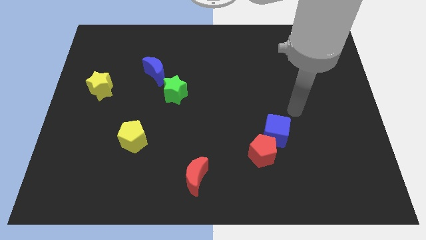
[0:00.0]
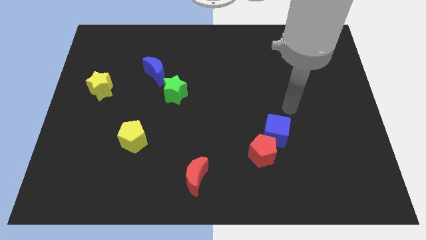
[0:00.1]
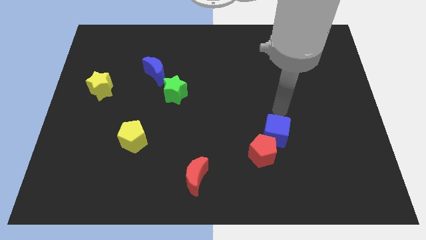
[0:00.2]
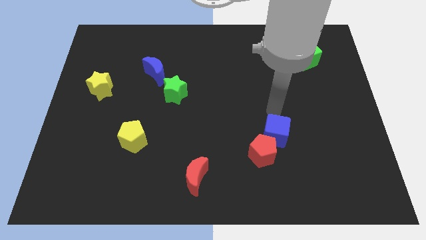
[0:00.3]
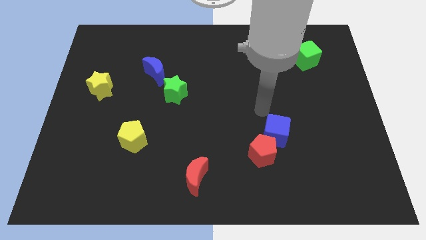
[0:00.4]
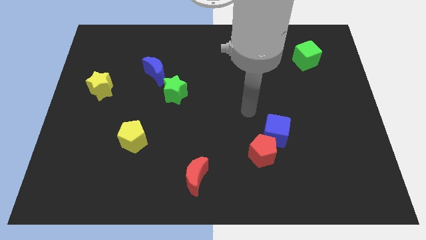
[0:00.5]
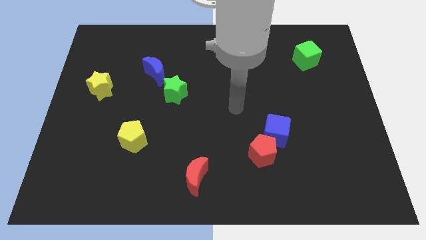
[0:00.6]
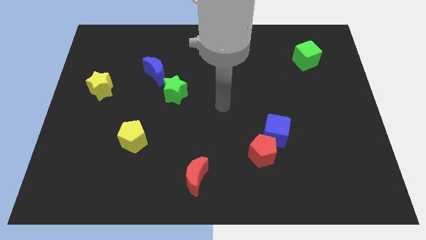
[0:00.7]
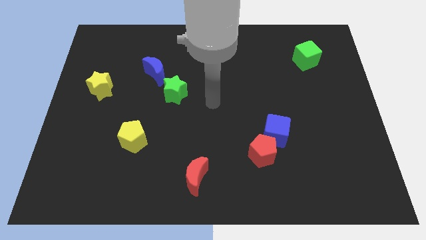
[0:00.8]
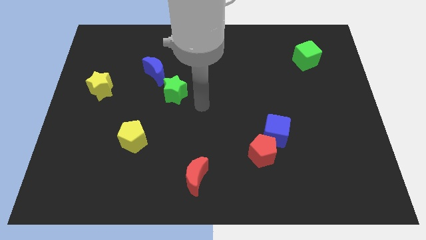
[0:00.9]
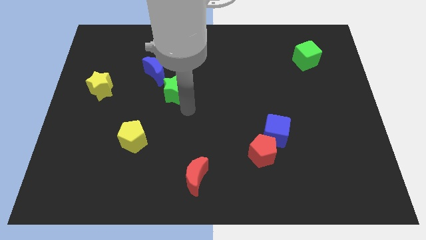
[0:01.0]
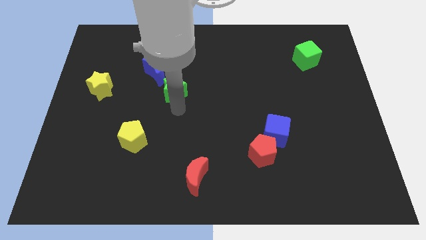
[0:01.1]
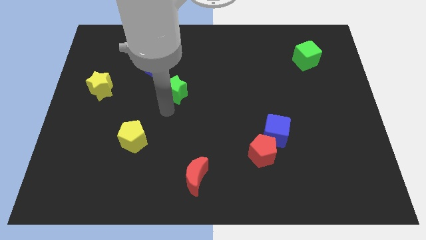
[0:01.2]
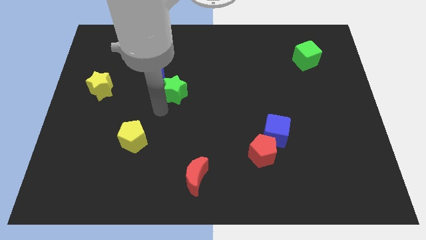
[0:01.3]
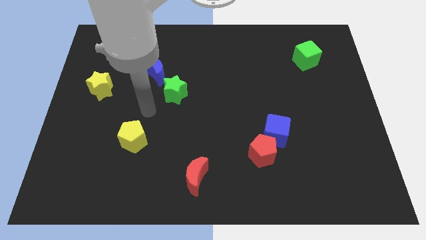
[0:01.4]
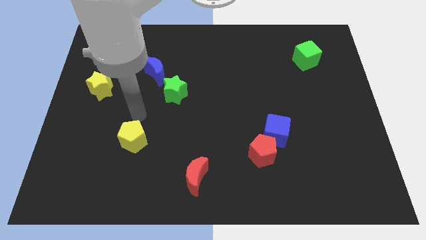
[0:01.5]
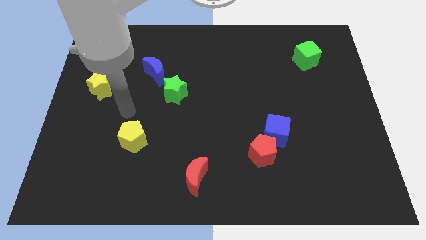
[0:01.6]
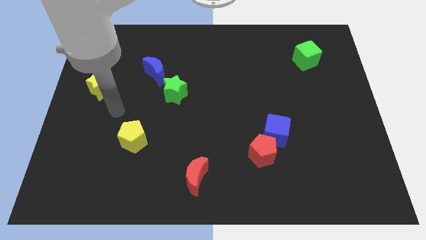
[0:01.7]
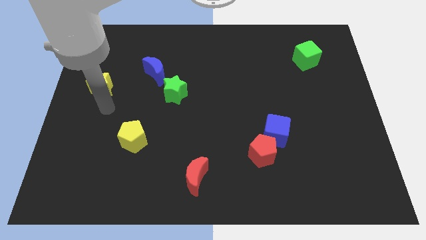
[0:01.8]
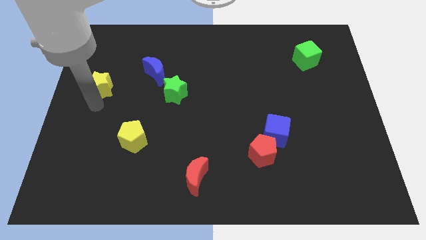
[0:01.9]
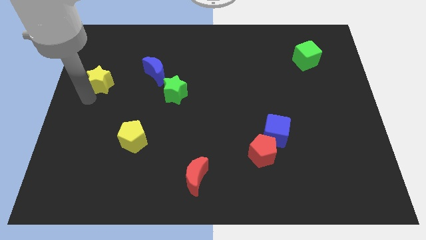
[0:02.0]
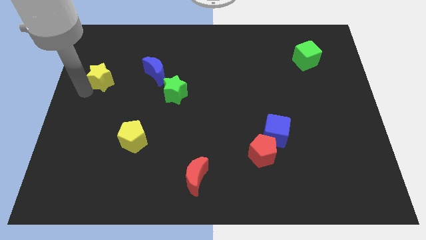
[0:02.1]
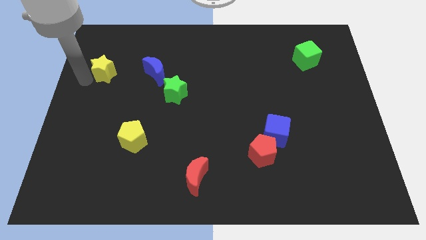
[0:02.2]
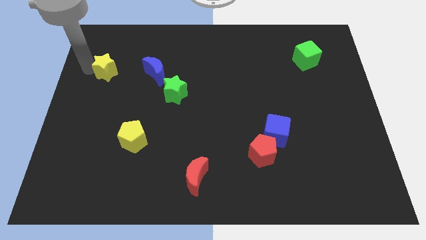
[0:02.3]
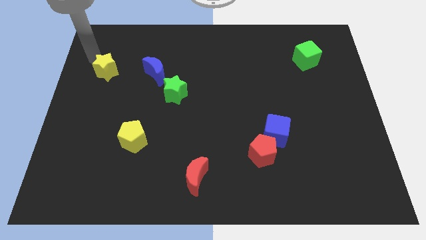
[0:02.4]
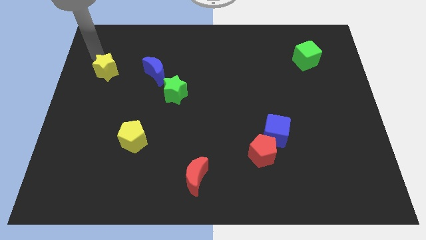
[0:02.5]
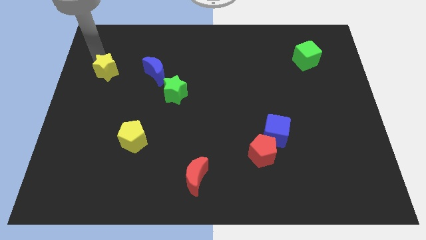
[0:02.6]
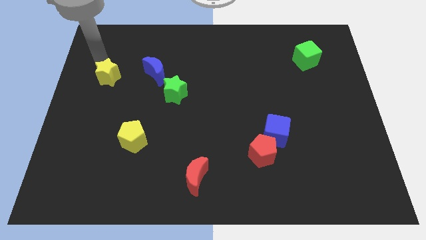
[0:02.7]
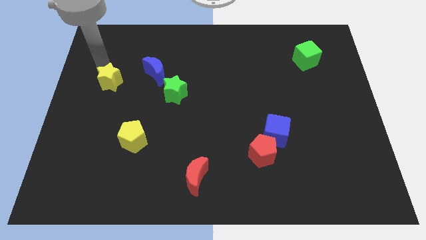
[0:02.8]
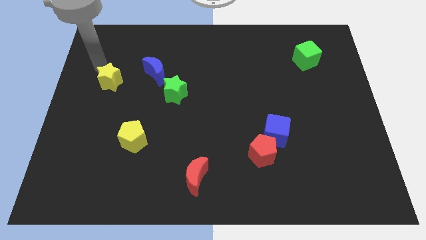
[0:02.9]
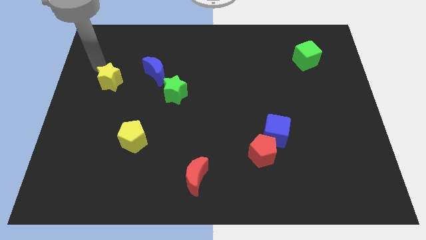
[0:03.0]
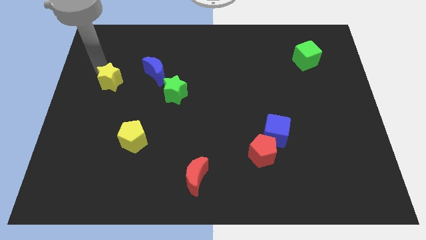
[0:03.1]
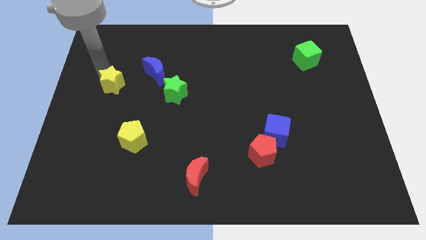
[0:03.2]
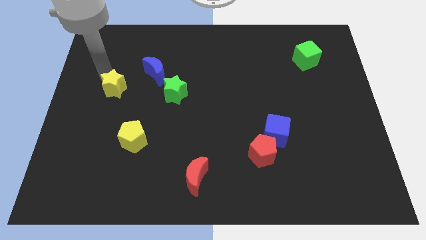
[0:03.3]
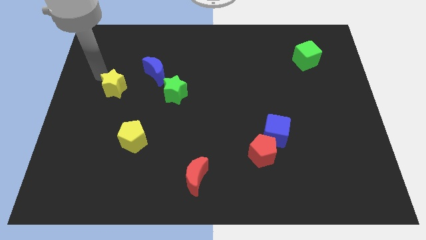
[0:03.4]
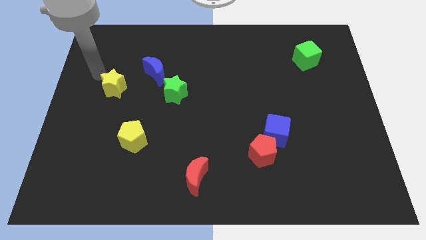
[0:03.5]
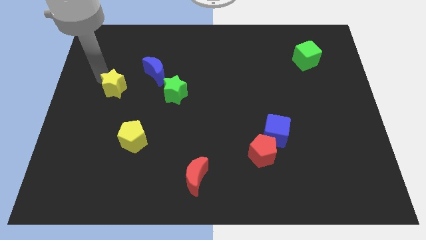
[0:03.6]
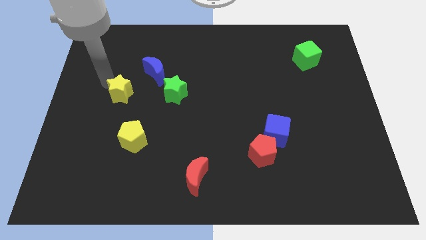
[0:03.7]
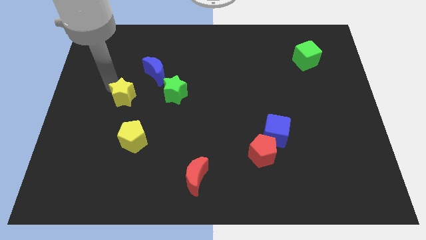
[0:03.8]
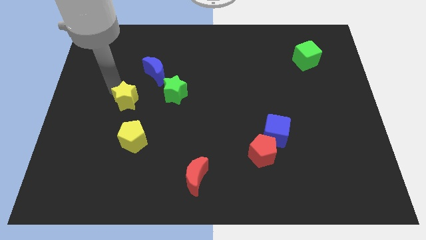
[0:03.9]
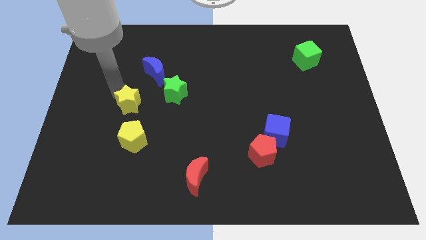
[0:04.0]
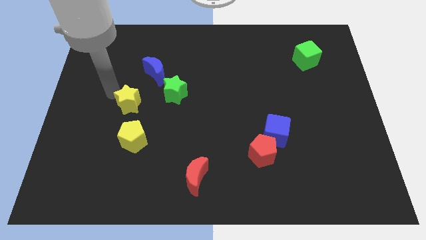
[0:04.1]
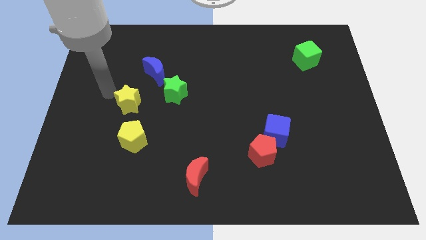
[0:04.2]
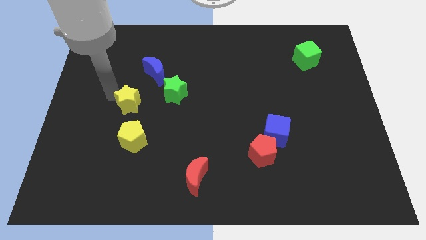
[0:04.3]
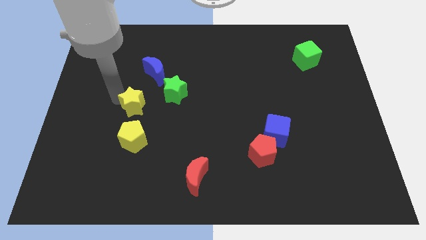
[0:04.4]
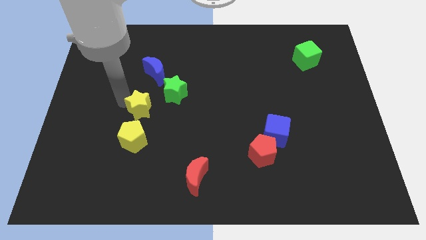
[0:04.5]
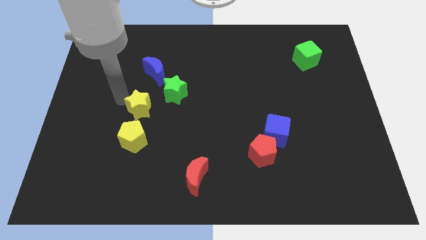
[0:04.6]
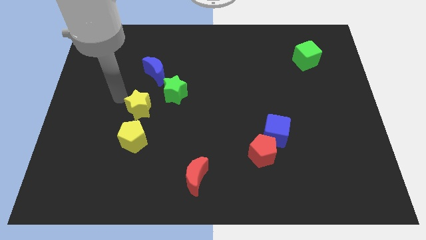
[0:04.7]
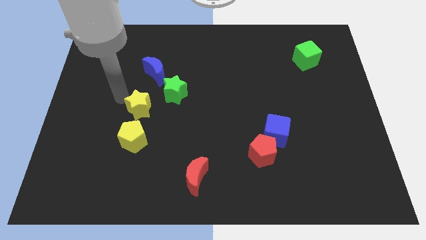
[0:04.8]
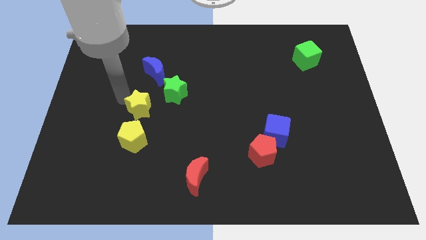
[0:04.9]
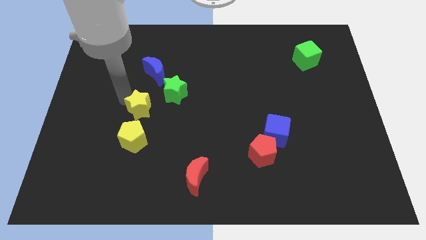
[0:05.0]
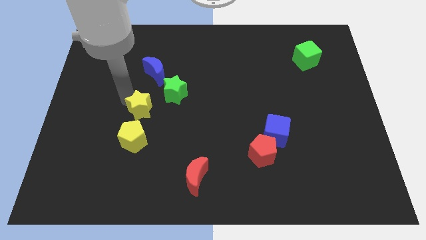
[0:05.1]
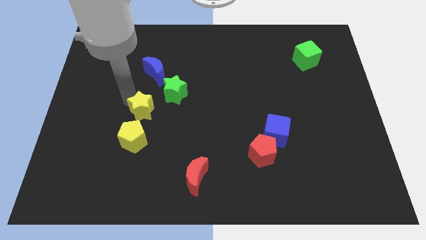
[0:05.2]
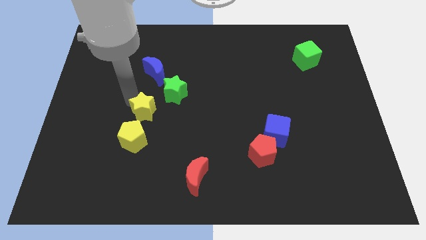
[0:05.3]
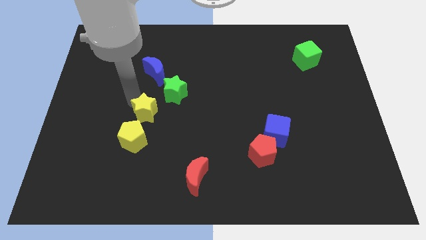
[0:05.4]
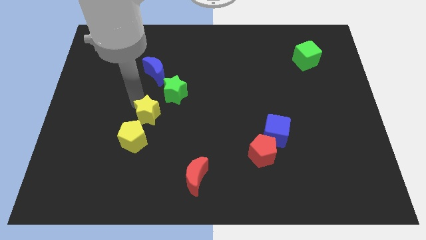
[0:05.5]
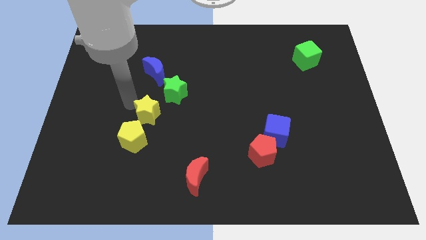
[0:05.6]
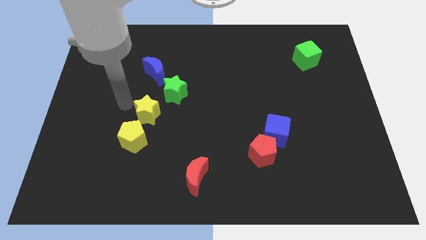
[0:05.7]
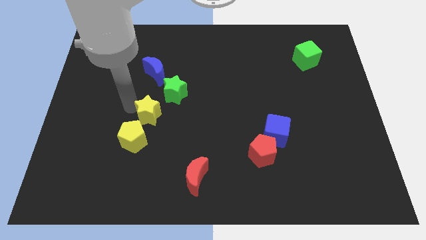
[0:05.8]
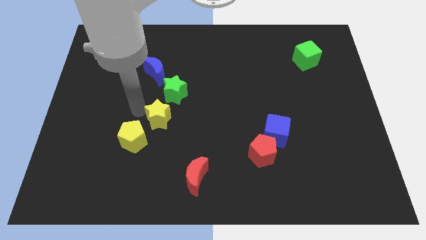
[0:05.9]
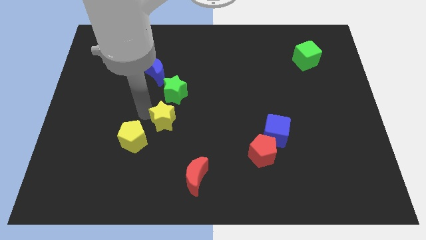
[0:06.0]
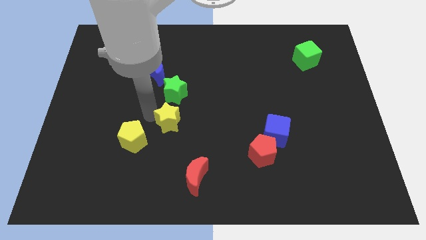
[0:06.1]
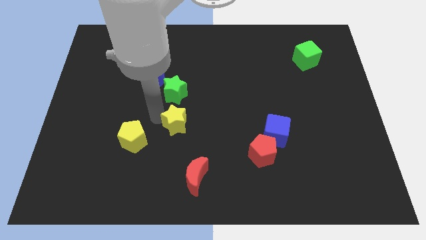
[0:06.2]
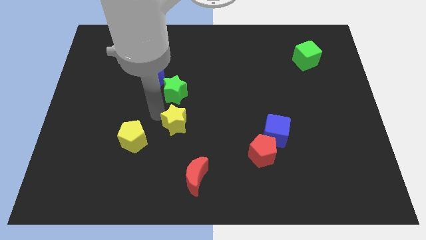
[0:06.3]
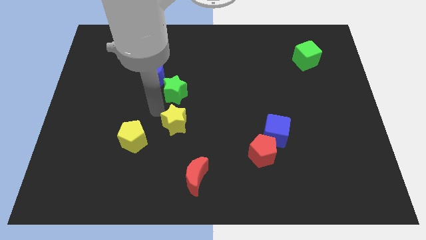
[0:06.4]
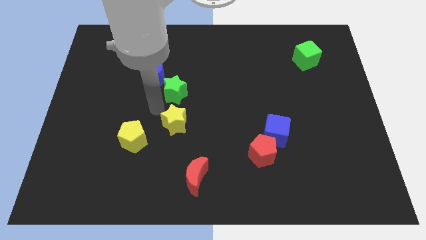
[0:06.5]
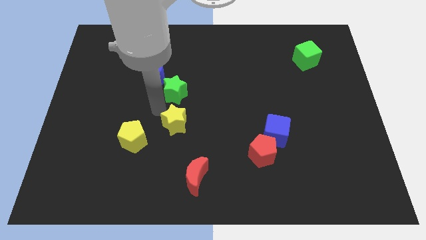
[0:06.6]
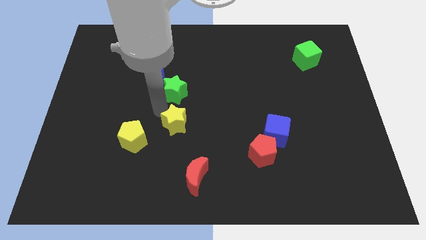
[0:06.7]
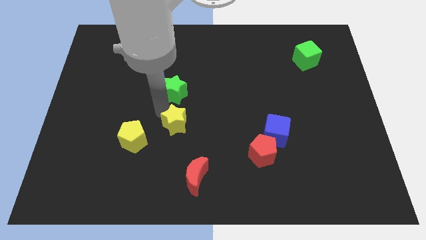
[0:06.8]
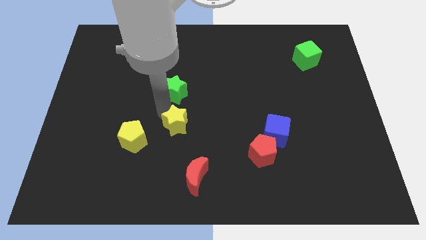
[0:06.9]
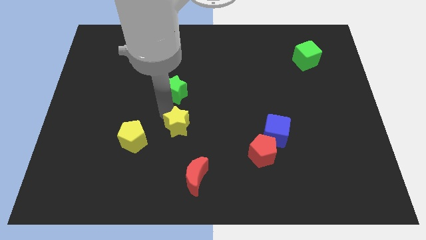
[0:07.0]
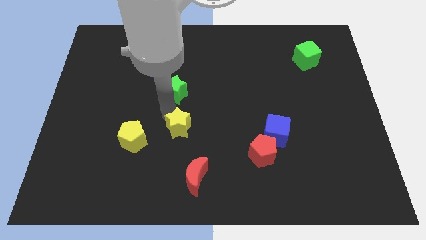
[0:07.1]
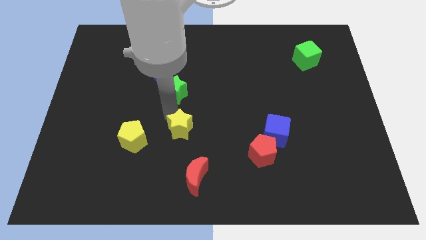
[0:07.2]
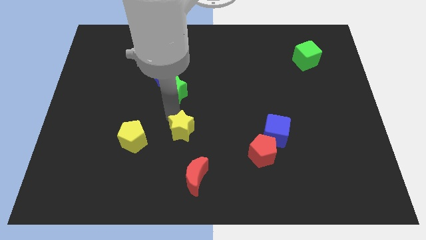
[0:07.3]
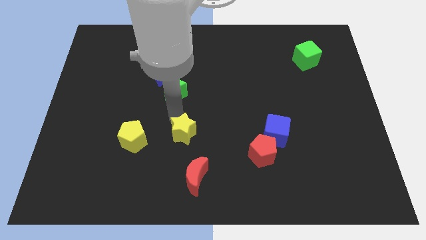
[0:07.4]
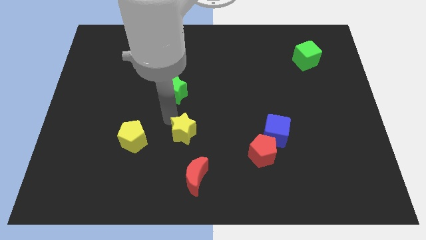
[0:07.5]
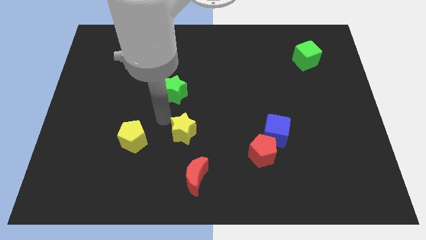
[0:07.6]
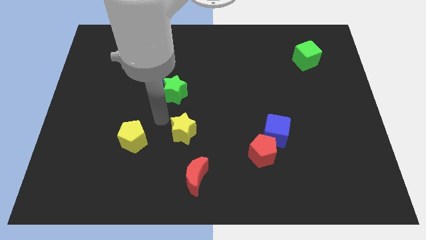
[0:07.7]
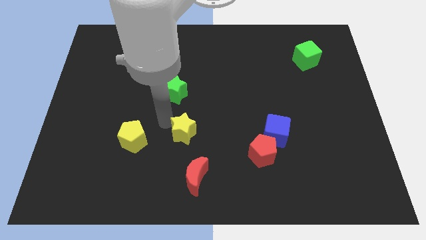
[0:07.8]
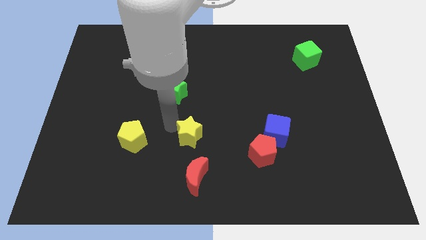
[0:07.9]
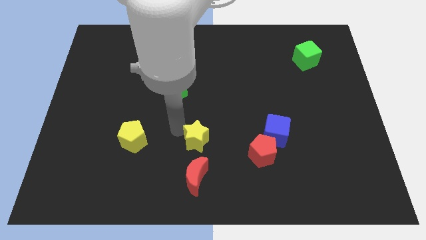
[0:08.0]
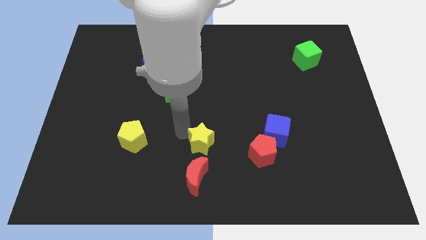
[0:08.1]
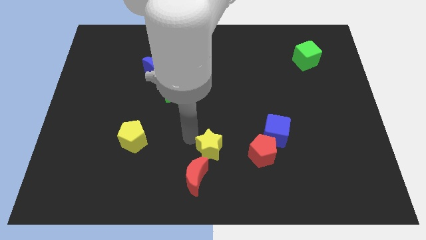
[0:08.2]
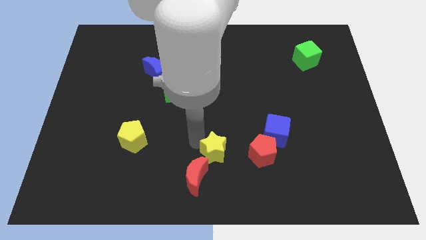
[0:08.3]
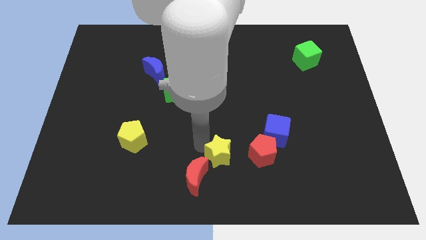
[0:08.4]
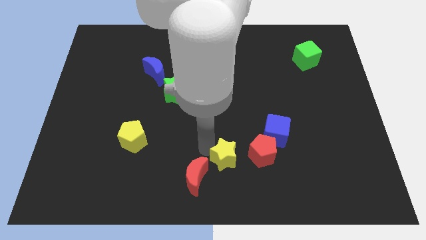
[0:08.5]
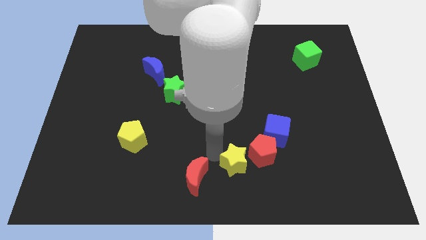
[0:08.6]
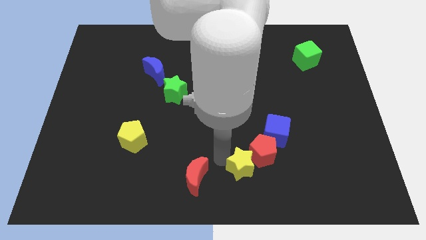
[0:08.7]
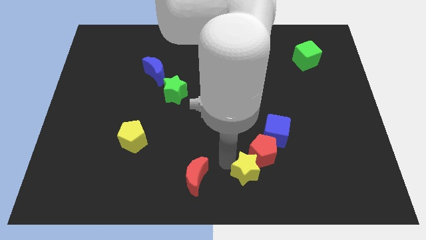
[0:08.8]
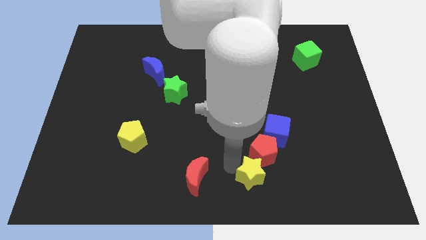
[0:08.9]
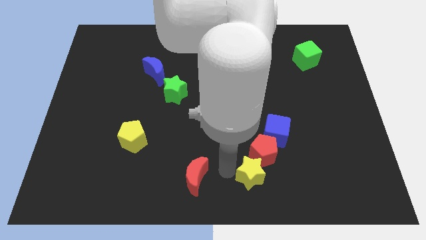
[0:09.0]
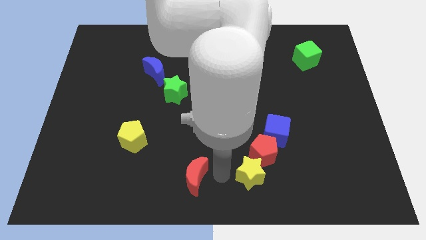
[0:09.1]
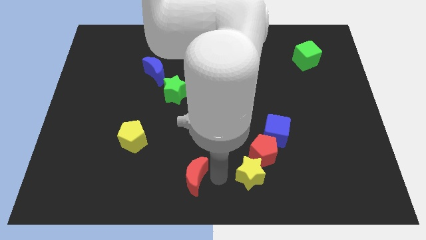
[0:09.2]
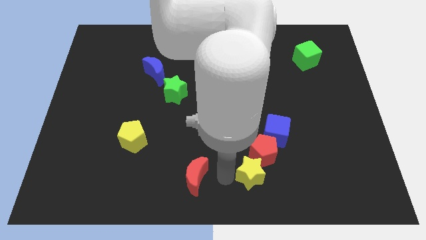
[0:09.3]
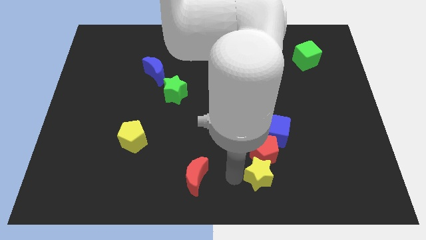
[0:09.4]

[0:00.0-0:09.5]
move the yellow star to the bottom of the blue cube
